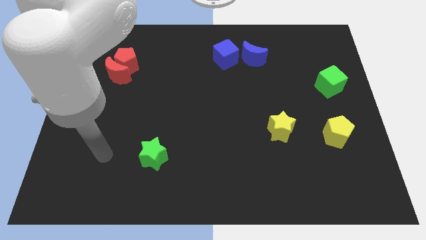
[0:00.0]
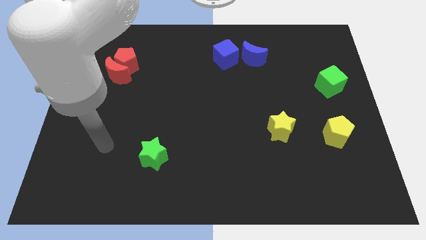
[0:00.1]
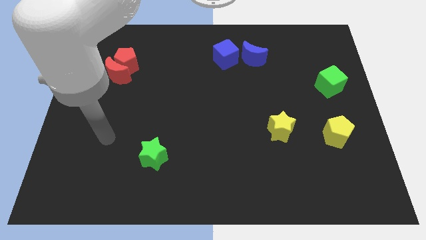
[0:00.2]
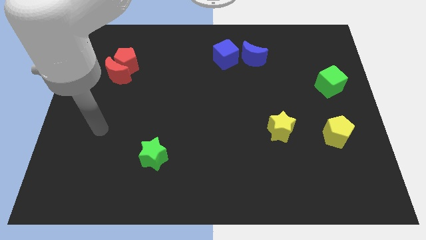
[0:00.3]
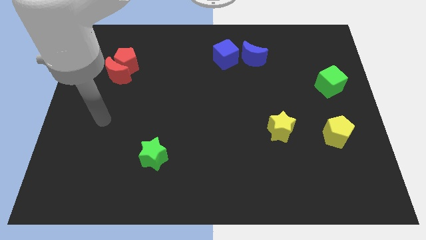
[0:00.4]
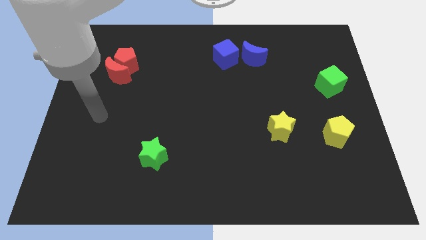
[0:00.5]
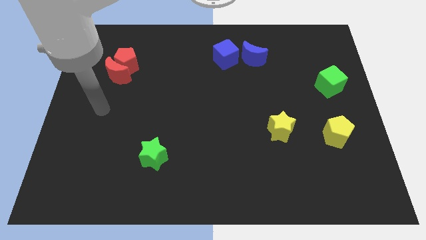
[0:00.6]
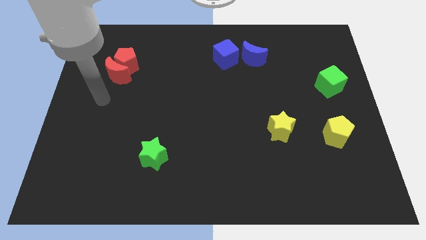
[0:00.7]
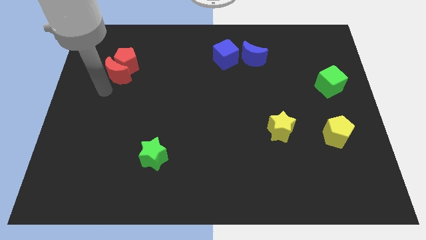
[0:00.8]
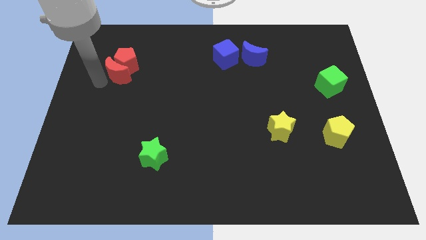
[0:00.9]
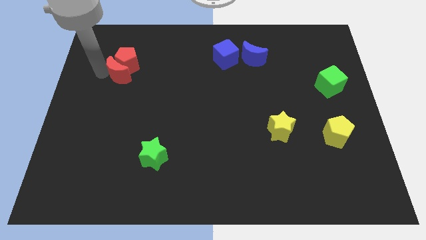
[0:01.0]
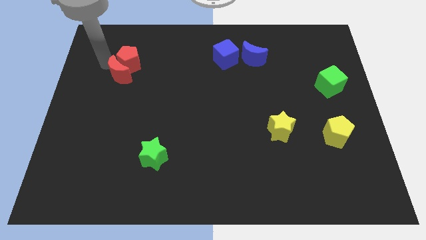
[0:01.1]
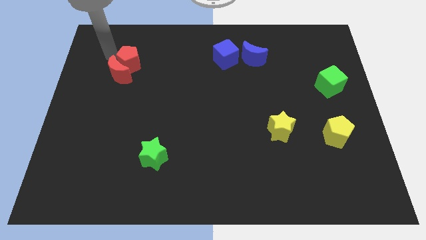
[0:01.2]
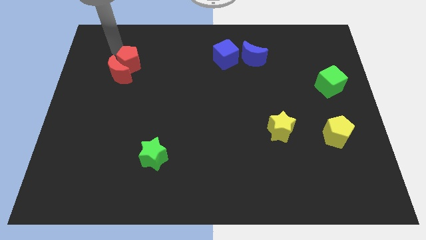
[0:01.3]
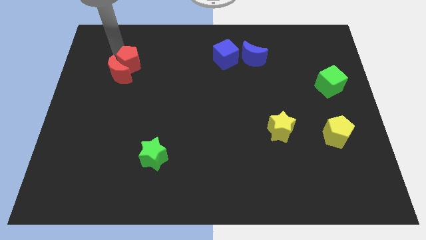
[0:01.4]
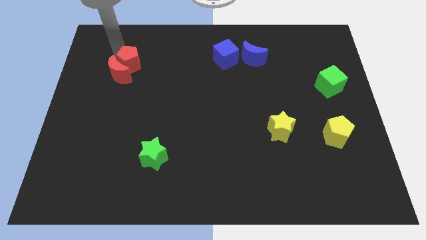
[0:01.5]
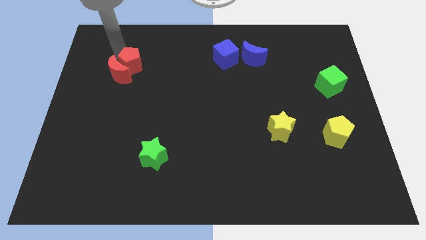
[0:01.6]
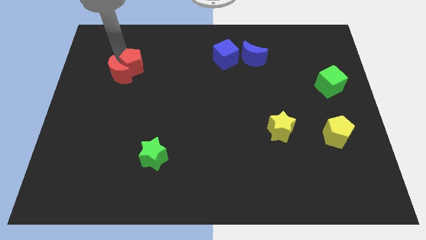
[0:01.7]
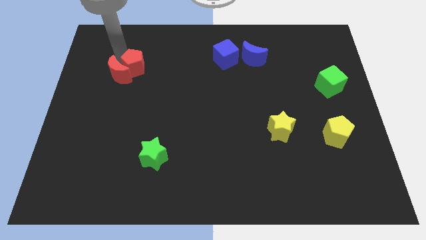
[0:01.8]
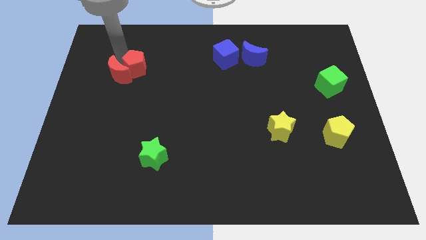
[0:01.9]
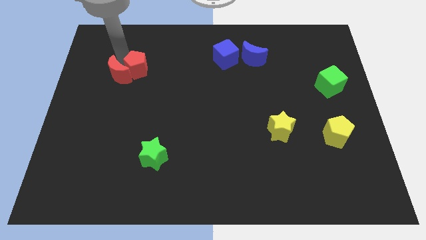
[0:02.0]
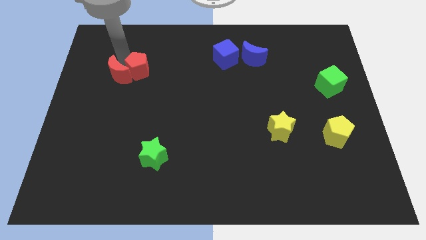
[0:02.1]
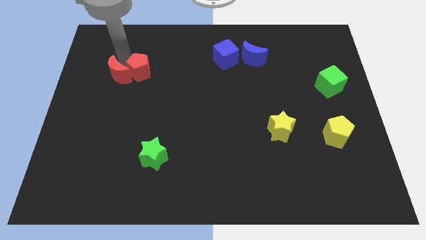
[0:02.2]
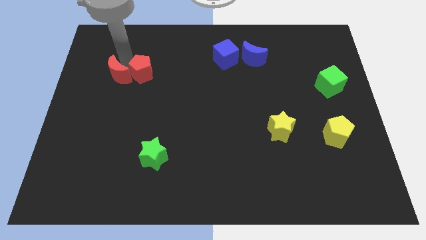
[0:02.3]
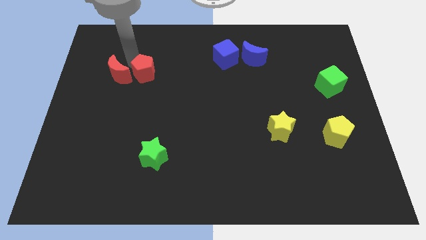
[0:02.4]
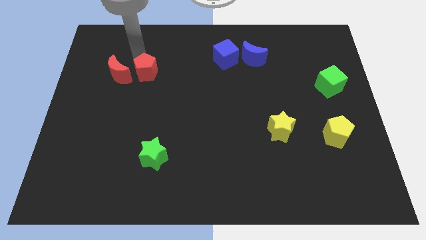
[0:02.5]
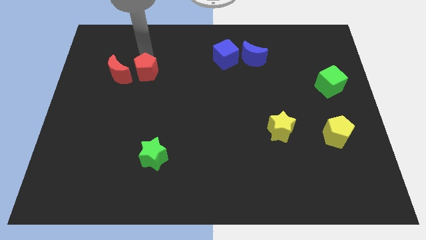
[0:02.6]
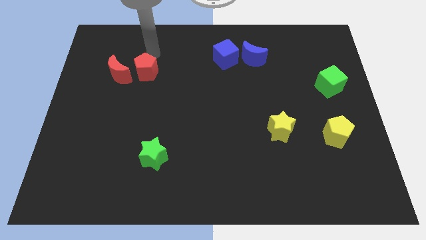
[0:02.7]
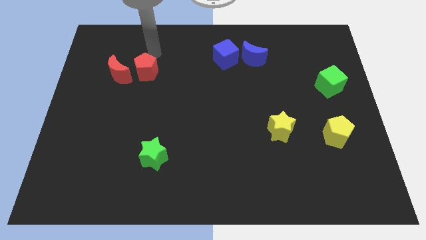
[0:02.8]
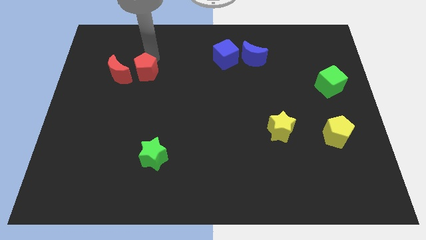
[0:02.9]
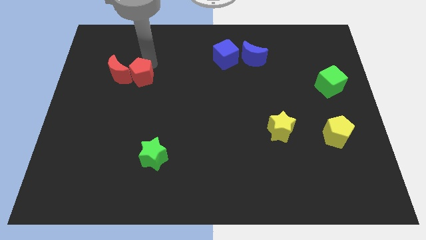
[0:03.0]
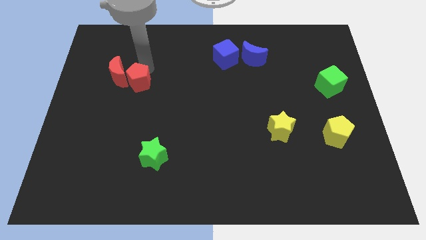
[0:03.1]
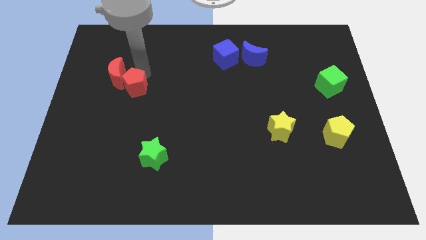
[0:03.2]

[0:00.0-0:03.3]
move the red pentagon down somewhat

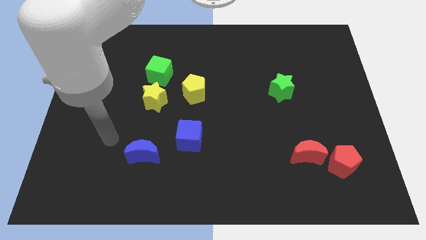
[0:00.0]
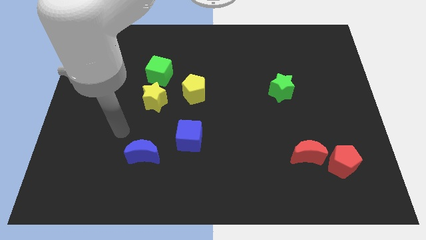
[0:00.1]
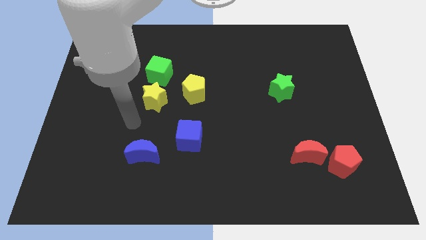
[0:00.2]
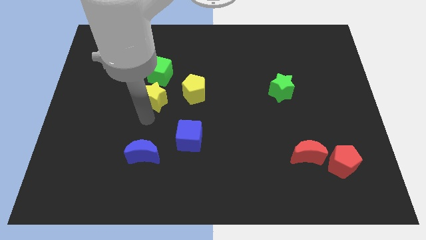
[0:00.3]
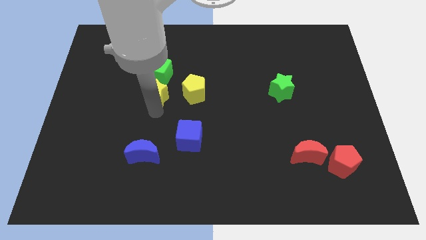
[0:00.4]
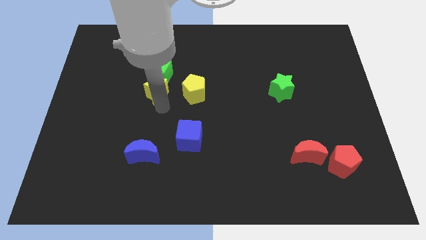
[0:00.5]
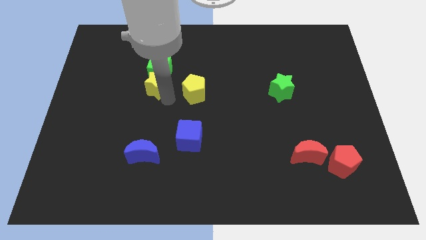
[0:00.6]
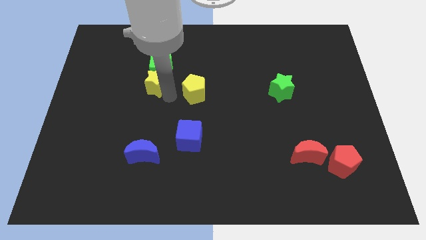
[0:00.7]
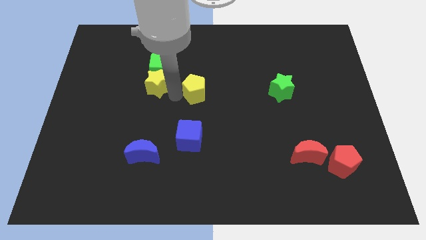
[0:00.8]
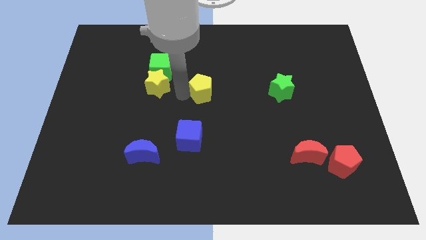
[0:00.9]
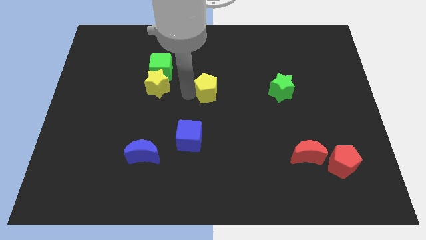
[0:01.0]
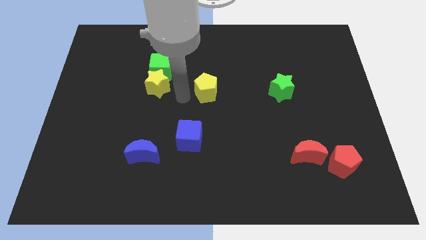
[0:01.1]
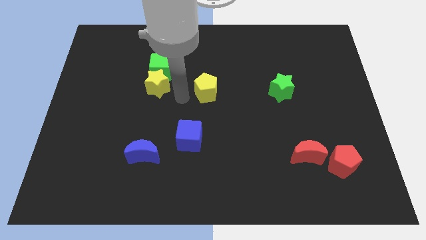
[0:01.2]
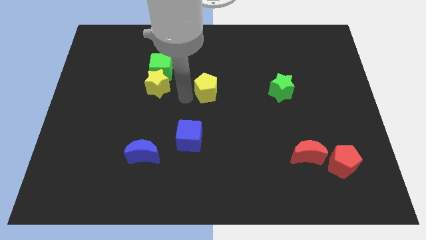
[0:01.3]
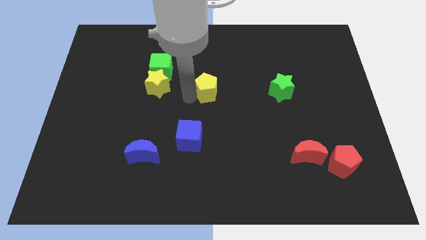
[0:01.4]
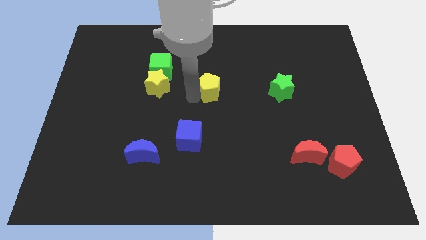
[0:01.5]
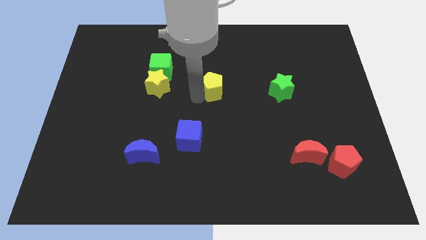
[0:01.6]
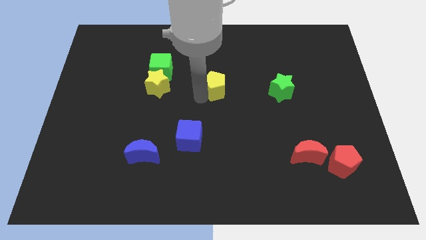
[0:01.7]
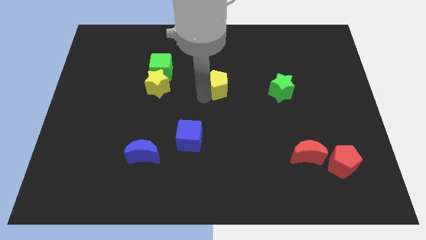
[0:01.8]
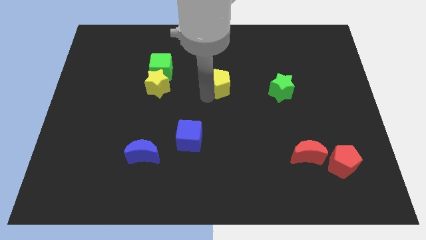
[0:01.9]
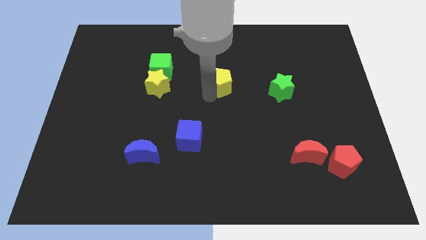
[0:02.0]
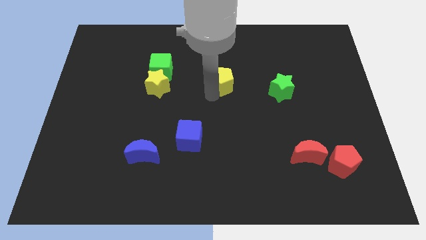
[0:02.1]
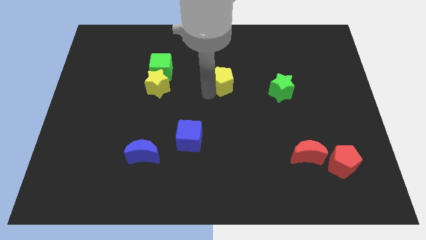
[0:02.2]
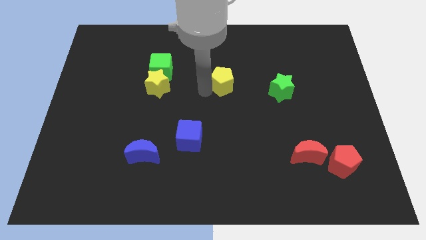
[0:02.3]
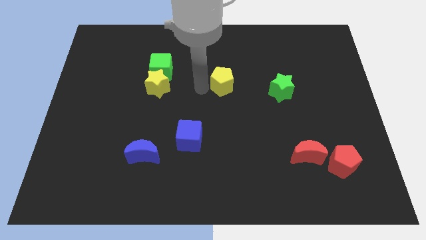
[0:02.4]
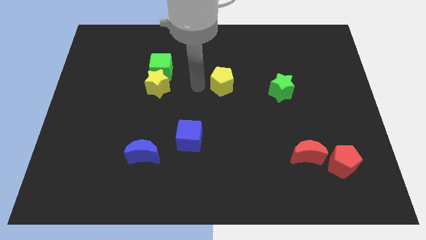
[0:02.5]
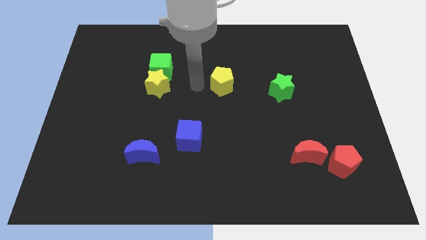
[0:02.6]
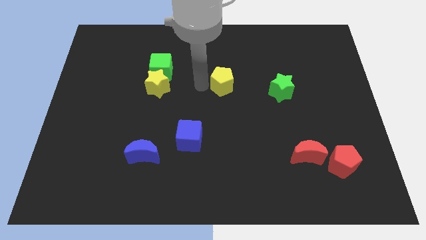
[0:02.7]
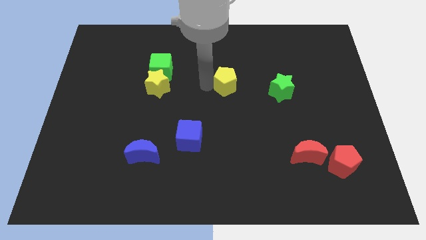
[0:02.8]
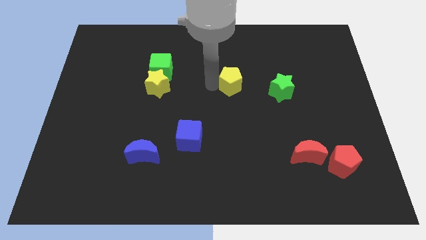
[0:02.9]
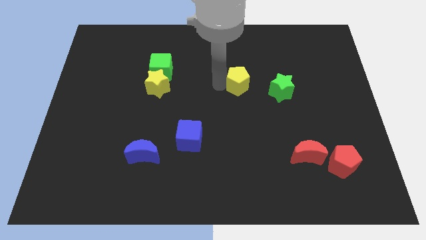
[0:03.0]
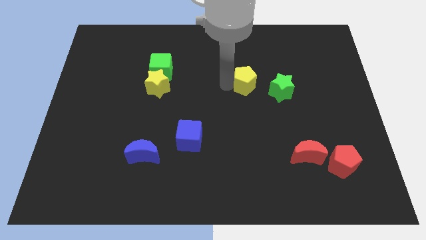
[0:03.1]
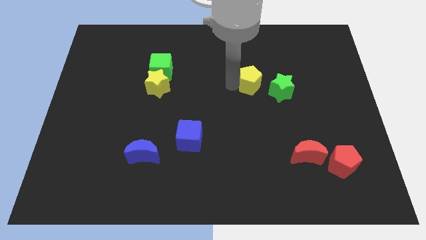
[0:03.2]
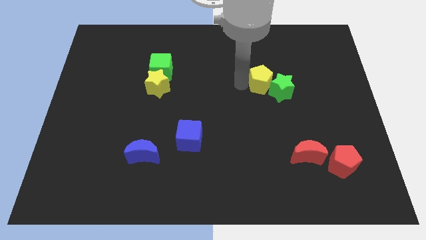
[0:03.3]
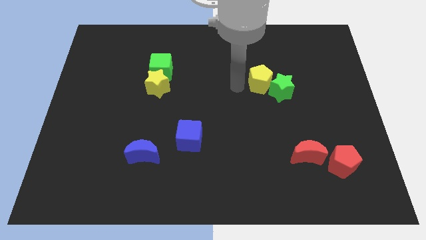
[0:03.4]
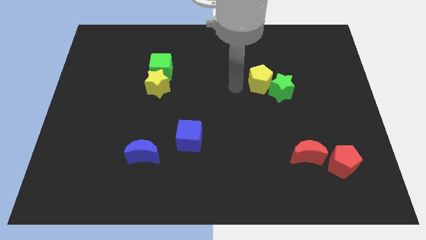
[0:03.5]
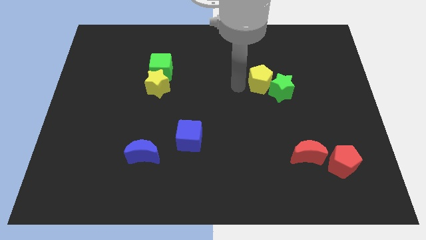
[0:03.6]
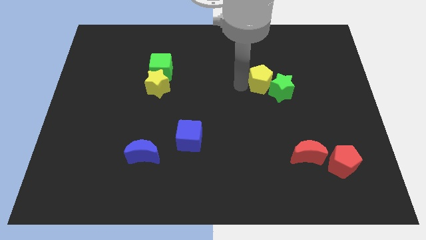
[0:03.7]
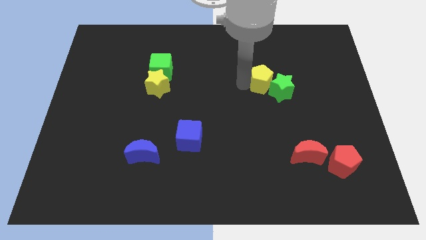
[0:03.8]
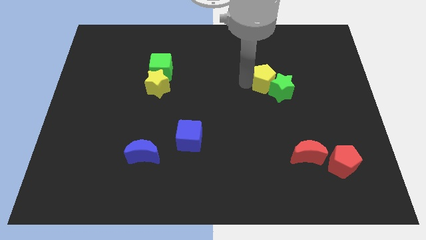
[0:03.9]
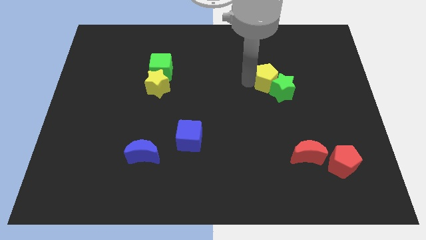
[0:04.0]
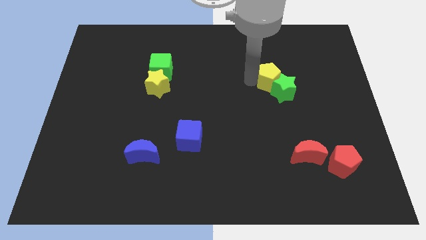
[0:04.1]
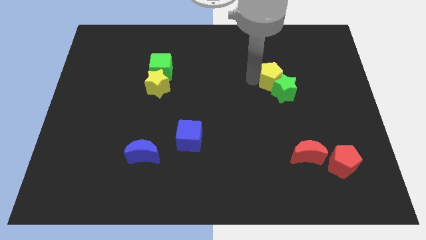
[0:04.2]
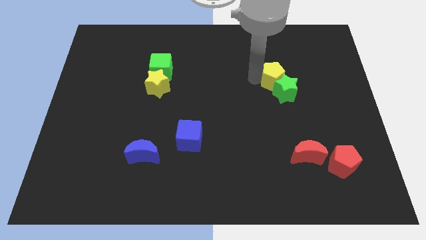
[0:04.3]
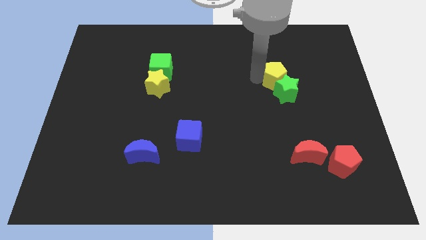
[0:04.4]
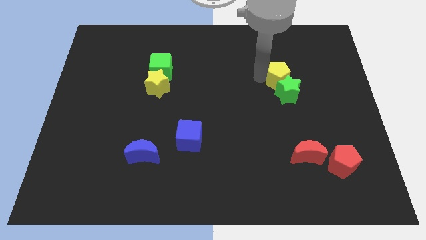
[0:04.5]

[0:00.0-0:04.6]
move the yellow pentagon right
